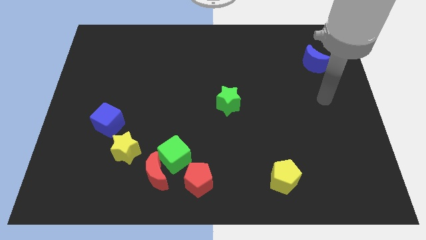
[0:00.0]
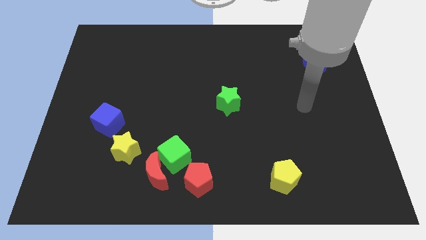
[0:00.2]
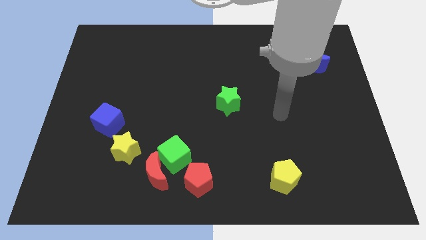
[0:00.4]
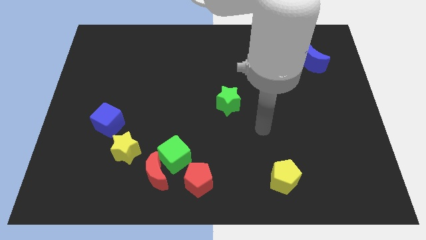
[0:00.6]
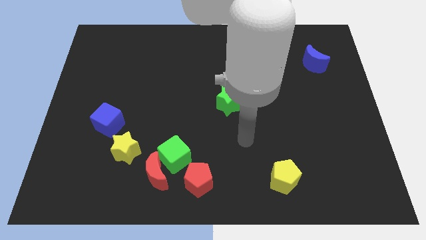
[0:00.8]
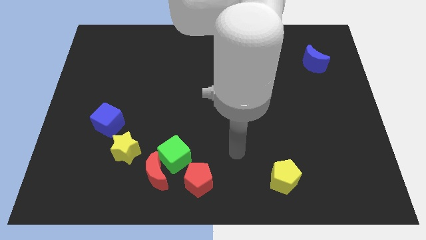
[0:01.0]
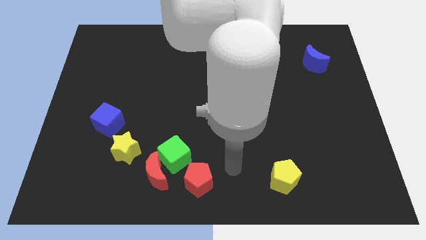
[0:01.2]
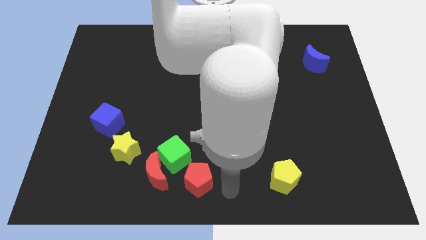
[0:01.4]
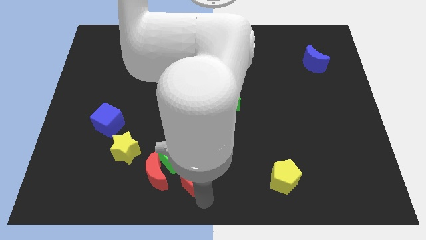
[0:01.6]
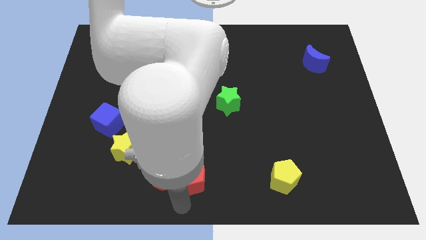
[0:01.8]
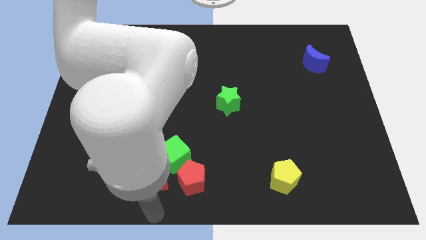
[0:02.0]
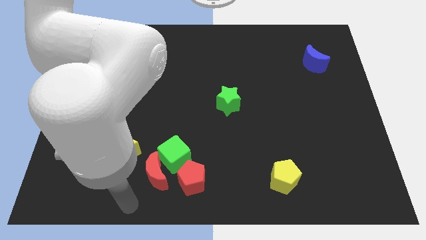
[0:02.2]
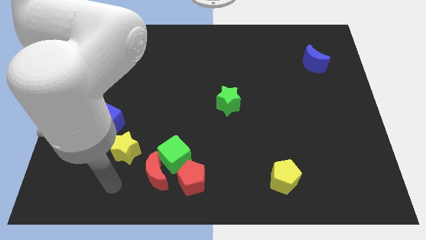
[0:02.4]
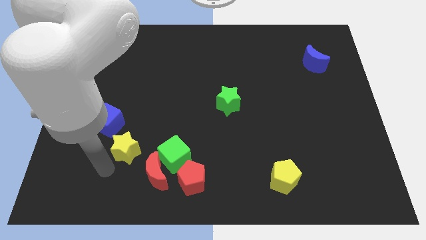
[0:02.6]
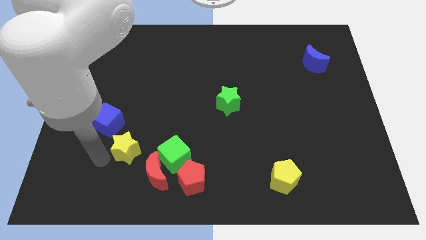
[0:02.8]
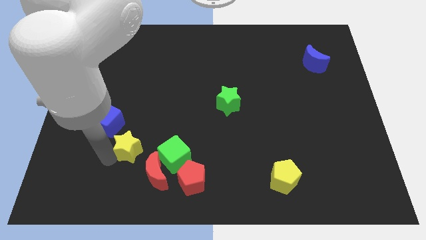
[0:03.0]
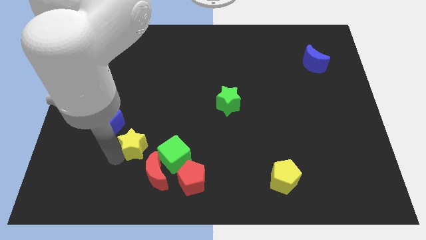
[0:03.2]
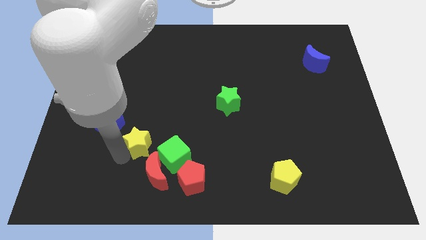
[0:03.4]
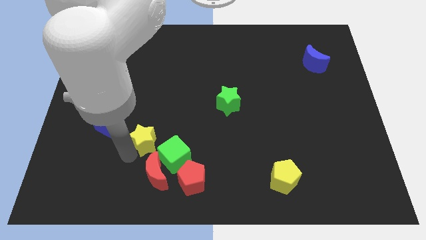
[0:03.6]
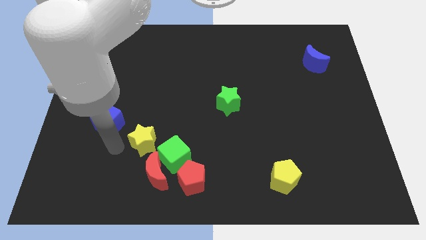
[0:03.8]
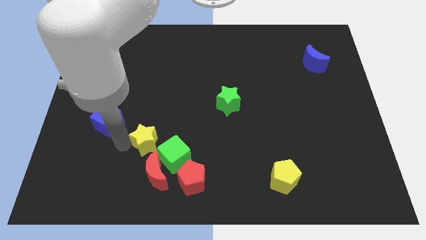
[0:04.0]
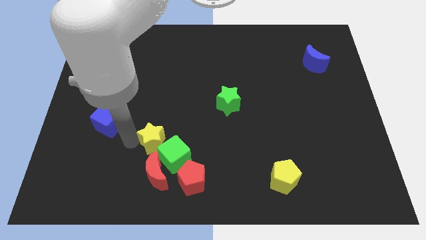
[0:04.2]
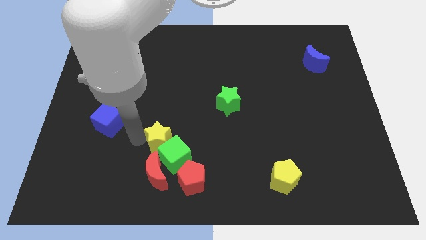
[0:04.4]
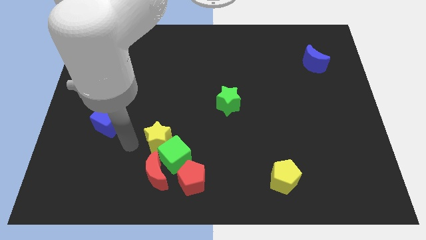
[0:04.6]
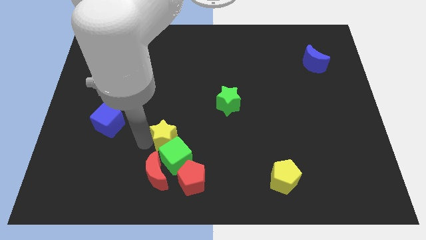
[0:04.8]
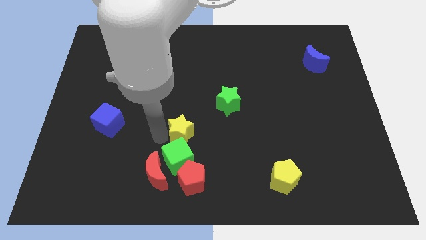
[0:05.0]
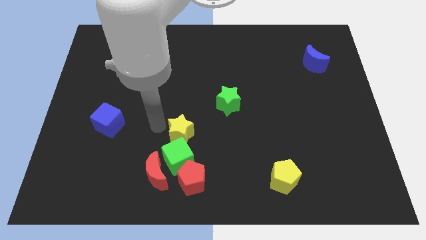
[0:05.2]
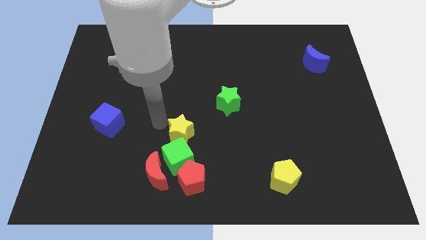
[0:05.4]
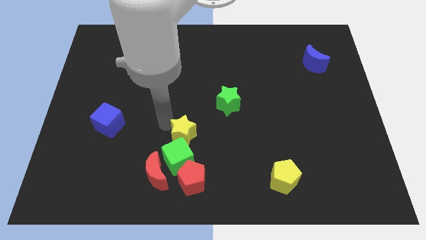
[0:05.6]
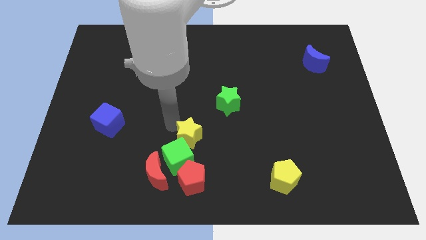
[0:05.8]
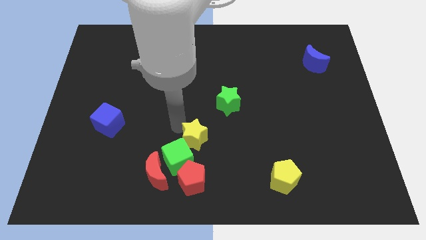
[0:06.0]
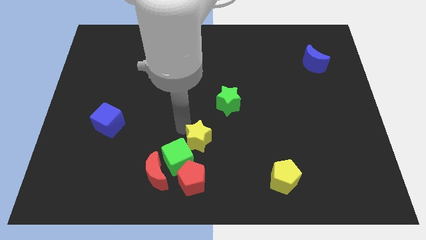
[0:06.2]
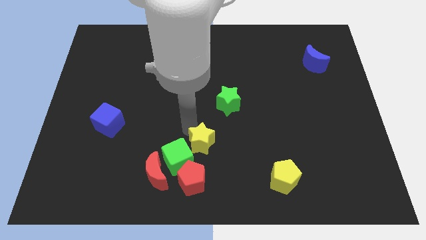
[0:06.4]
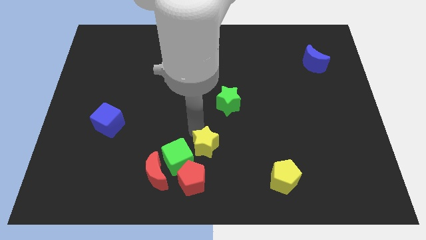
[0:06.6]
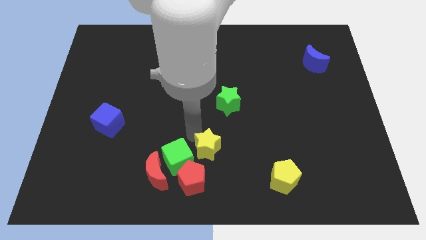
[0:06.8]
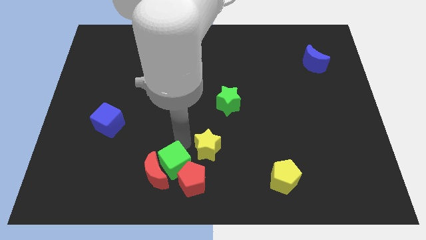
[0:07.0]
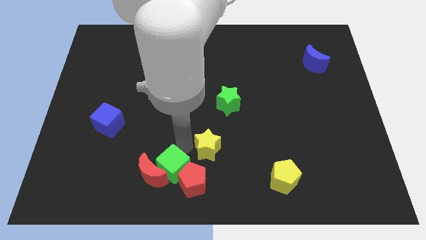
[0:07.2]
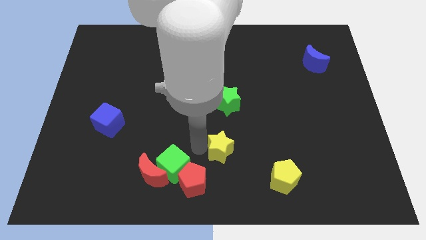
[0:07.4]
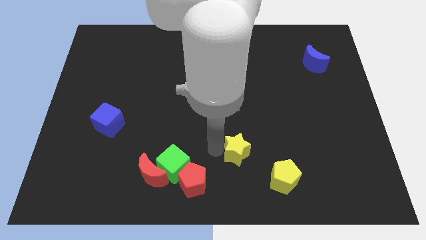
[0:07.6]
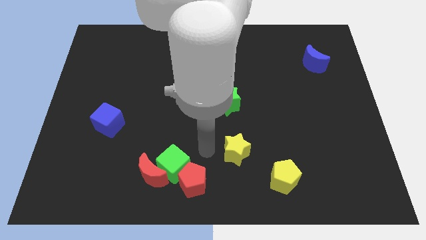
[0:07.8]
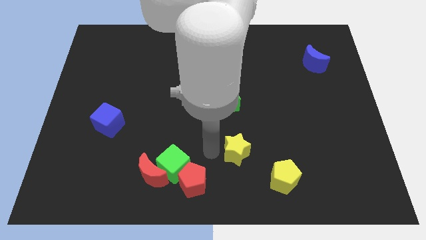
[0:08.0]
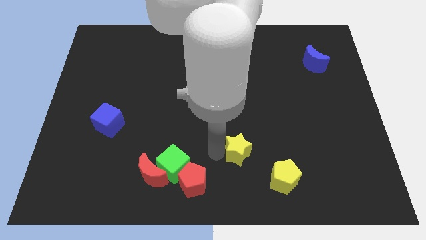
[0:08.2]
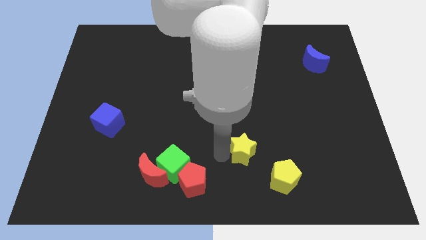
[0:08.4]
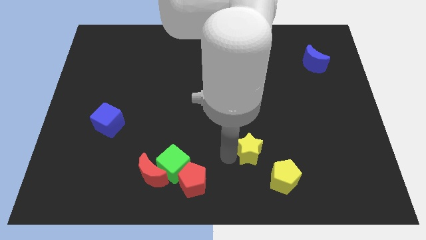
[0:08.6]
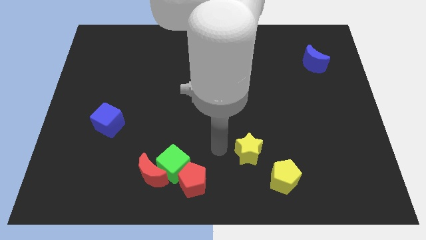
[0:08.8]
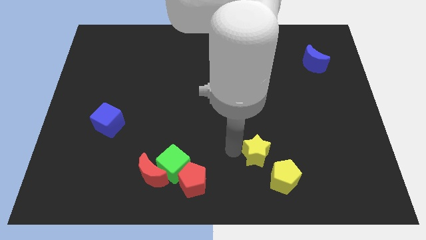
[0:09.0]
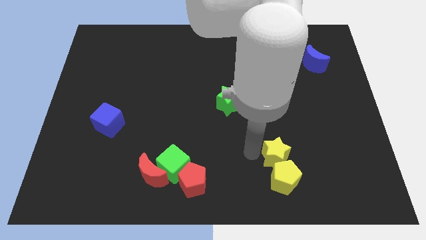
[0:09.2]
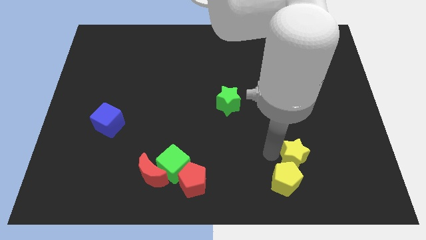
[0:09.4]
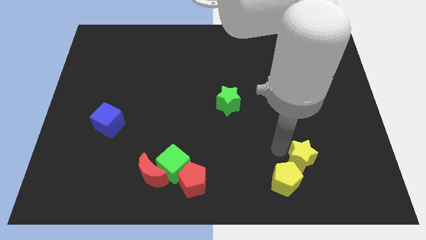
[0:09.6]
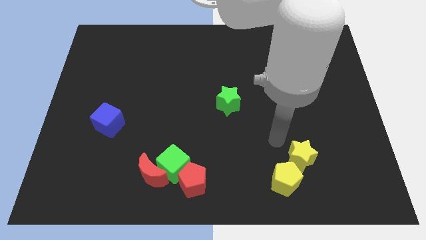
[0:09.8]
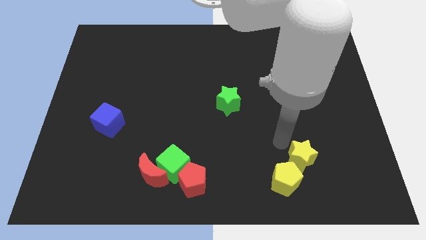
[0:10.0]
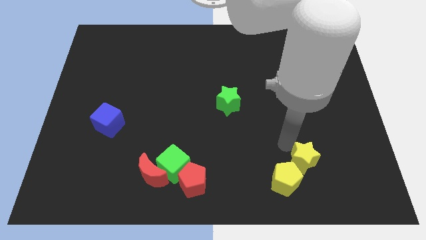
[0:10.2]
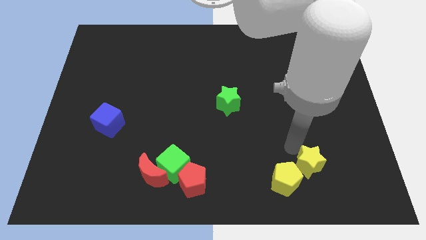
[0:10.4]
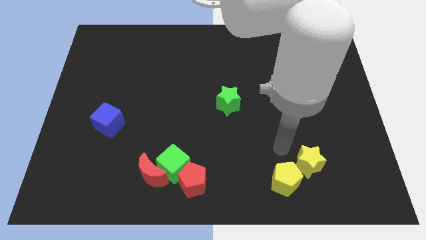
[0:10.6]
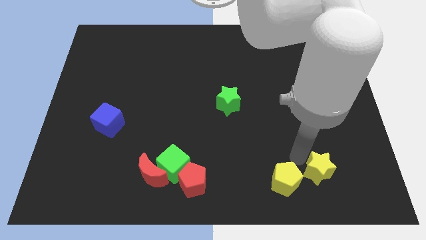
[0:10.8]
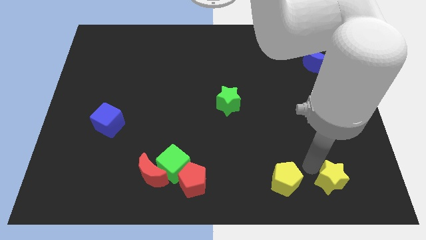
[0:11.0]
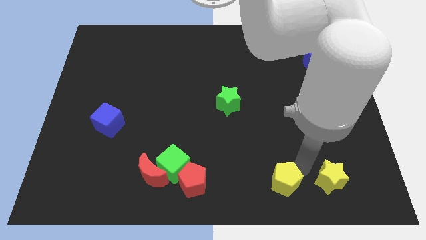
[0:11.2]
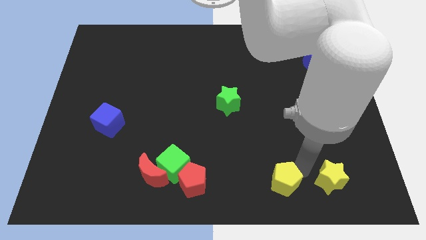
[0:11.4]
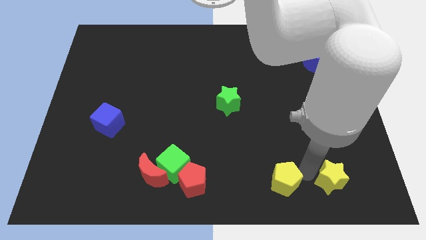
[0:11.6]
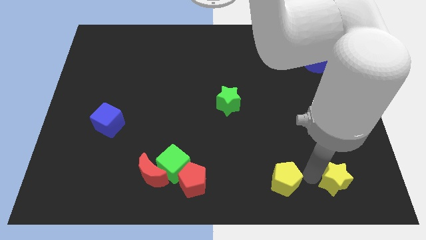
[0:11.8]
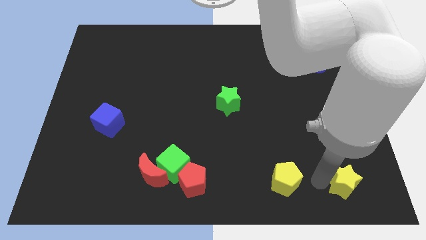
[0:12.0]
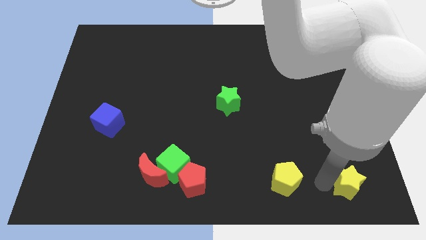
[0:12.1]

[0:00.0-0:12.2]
put the yellow star to the bottom right corner
